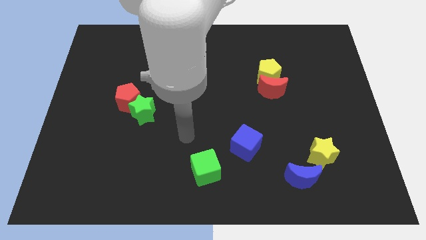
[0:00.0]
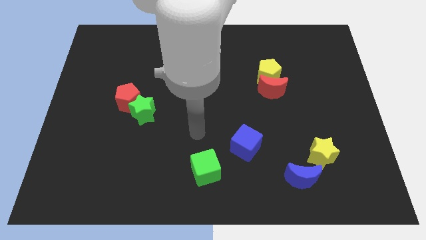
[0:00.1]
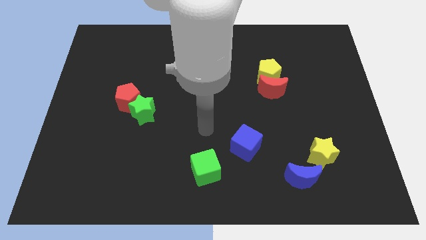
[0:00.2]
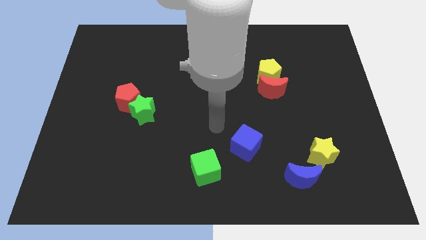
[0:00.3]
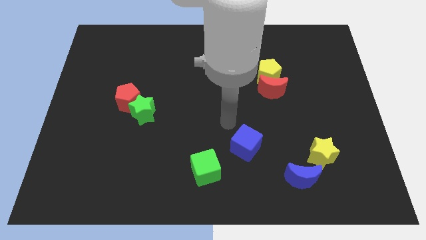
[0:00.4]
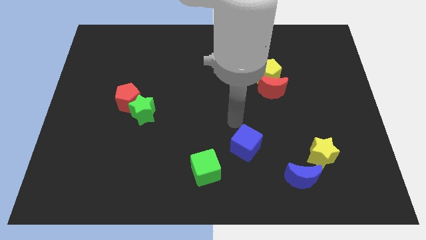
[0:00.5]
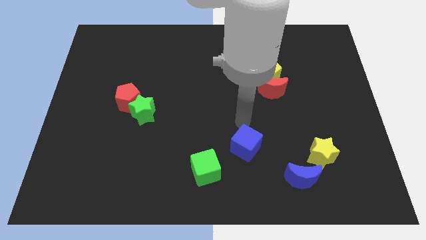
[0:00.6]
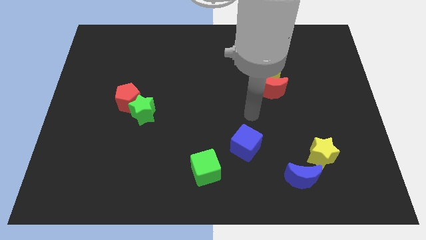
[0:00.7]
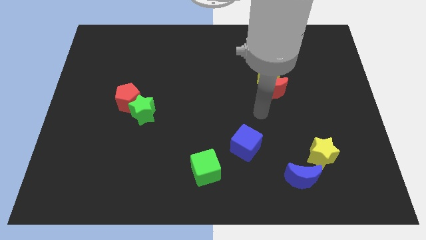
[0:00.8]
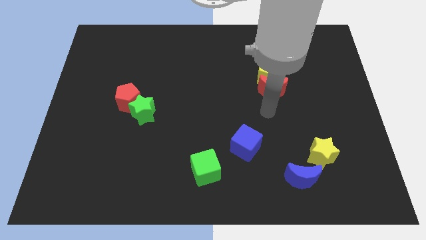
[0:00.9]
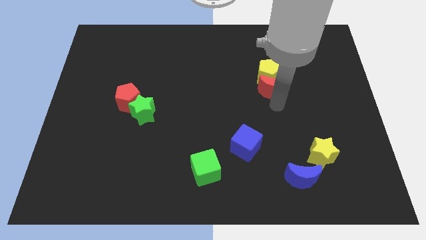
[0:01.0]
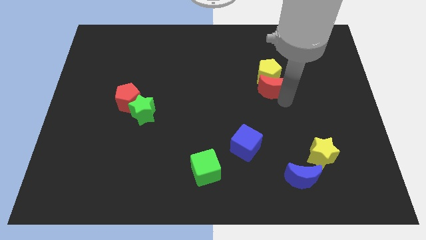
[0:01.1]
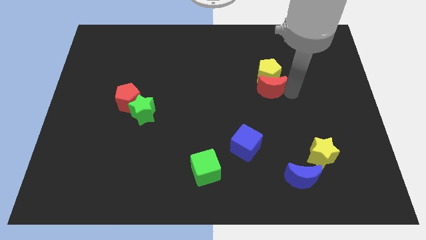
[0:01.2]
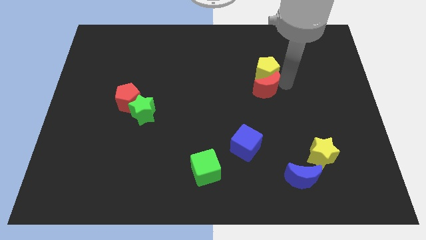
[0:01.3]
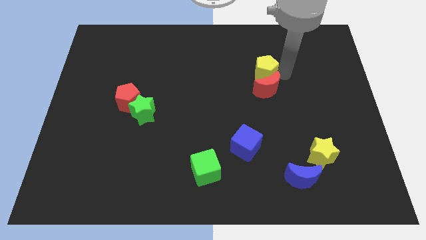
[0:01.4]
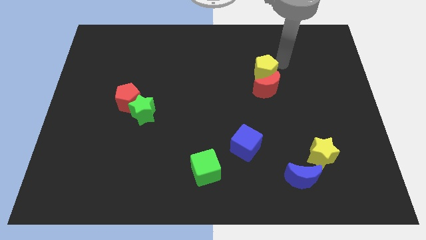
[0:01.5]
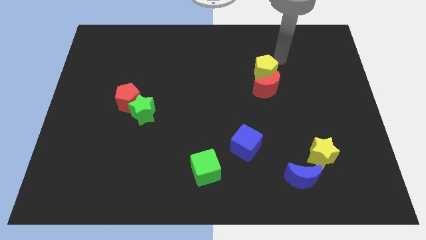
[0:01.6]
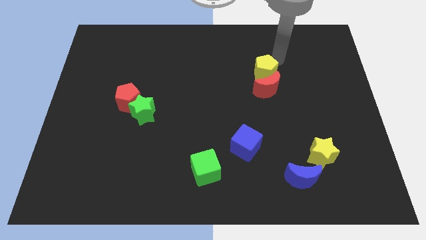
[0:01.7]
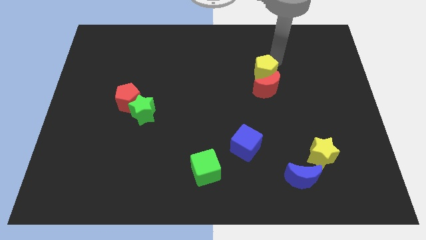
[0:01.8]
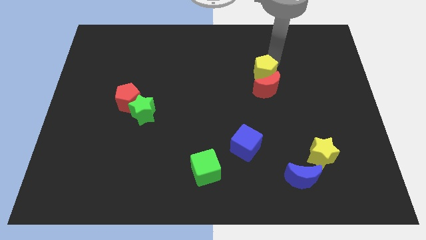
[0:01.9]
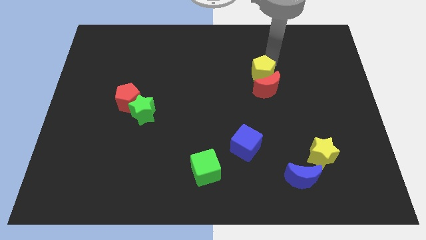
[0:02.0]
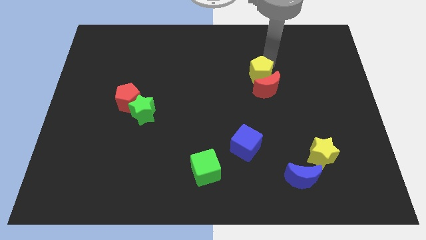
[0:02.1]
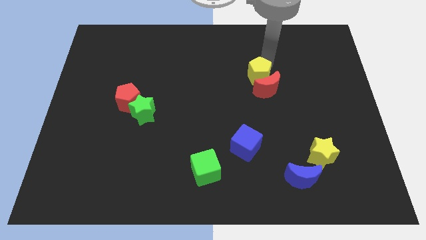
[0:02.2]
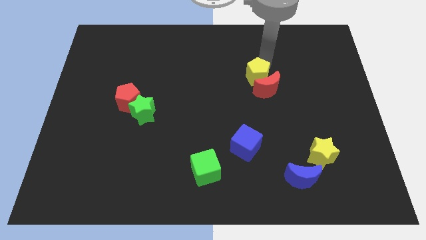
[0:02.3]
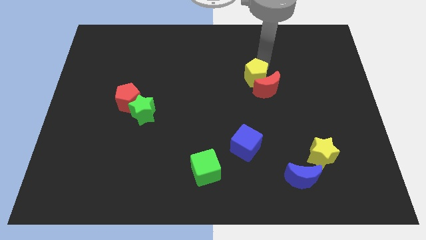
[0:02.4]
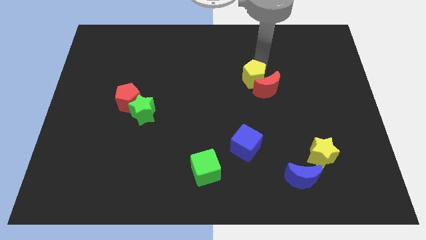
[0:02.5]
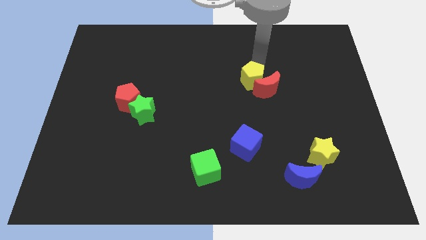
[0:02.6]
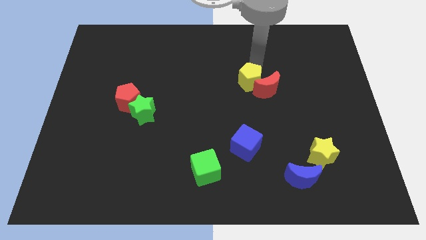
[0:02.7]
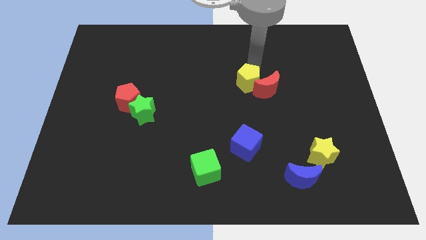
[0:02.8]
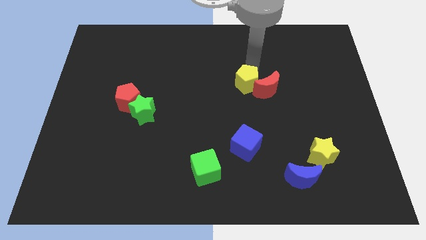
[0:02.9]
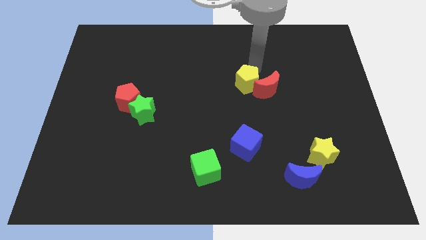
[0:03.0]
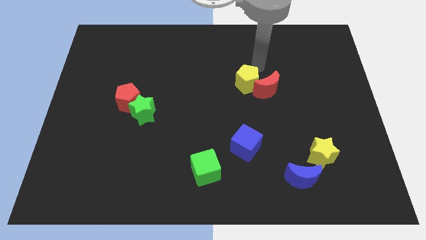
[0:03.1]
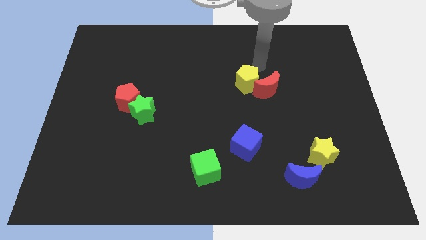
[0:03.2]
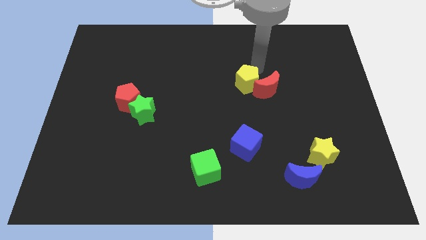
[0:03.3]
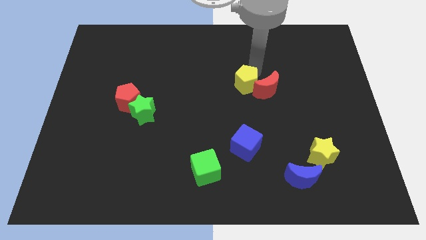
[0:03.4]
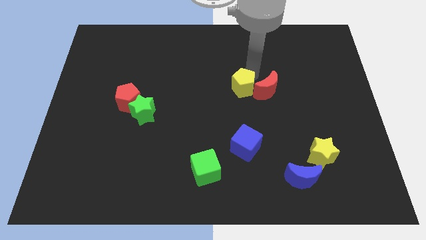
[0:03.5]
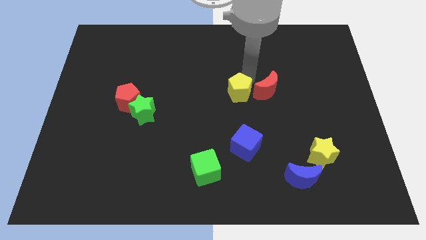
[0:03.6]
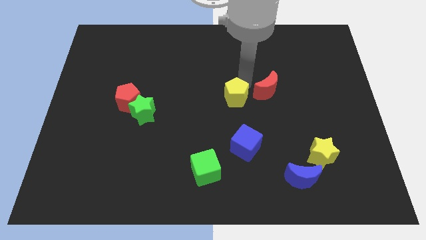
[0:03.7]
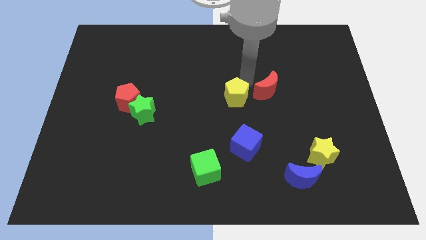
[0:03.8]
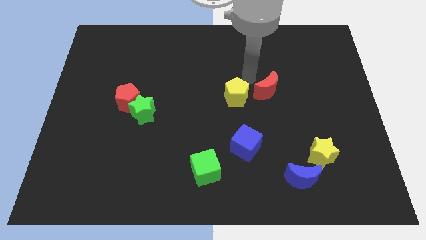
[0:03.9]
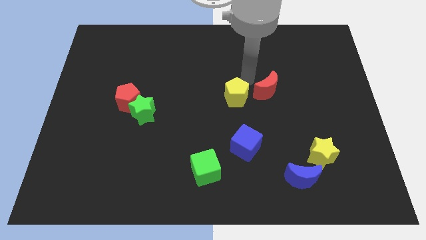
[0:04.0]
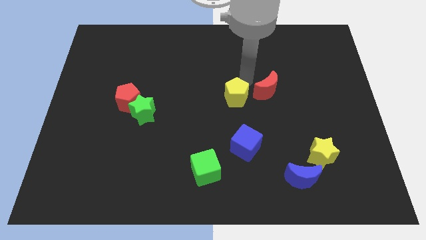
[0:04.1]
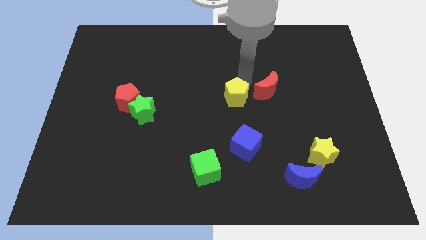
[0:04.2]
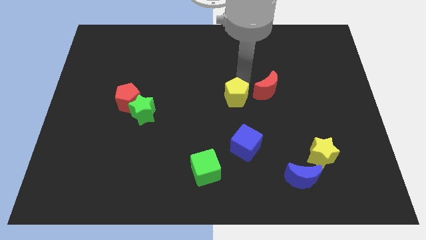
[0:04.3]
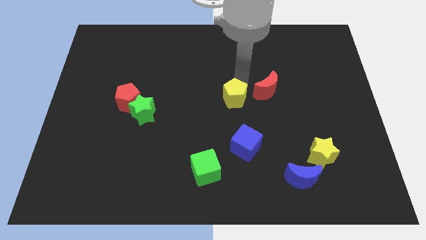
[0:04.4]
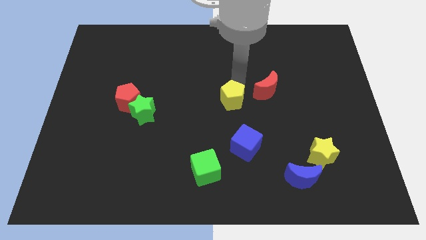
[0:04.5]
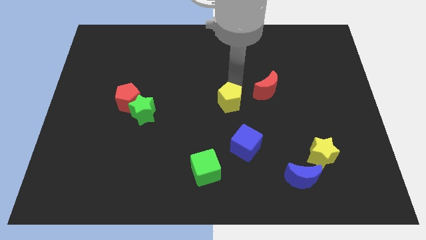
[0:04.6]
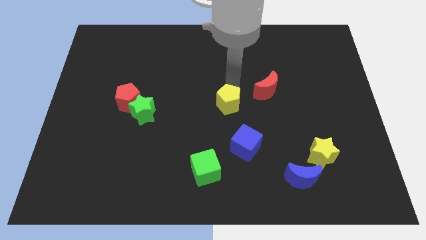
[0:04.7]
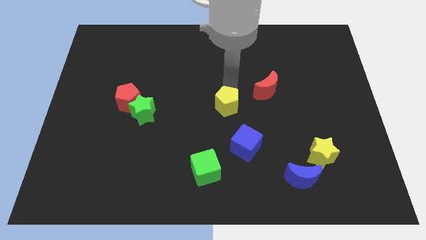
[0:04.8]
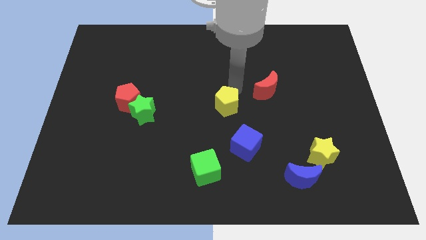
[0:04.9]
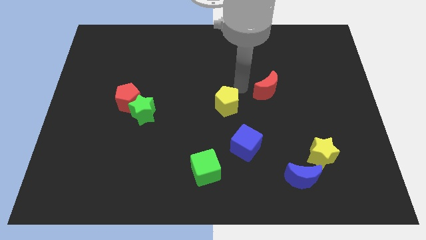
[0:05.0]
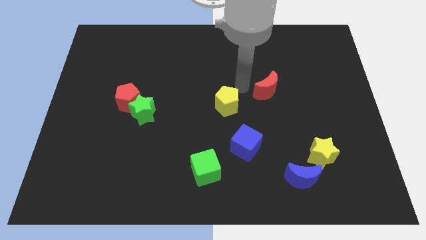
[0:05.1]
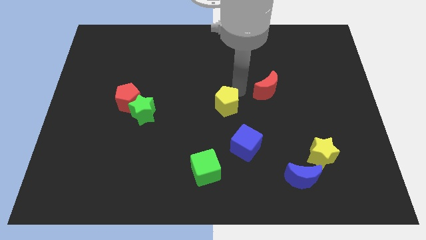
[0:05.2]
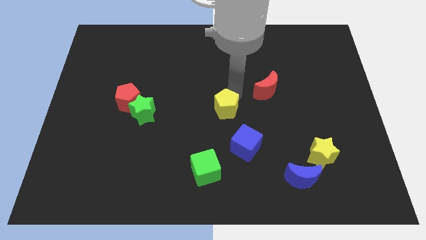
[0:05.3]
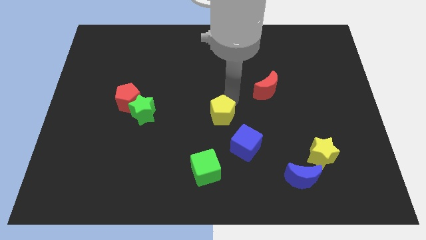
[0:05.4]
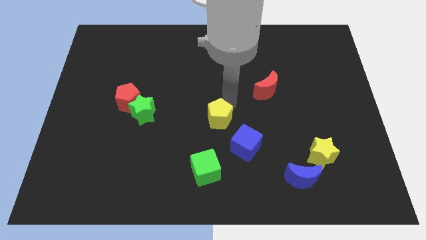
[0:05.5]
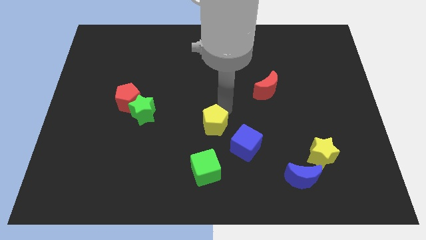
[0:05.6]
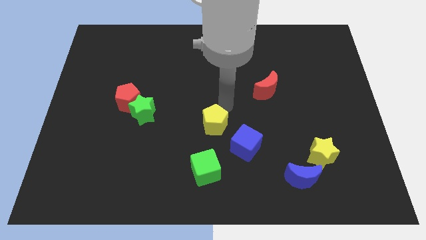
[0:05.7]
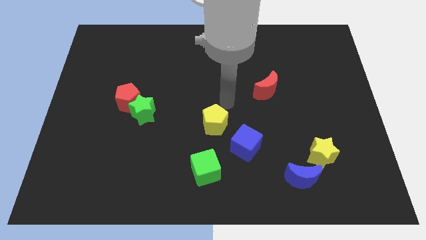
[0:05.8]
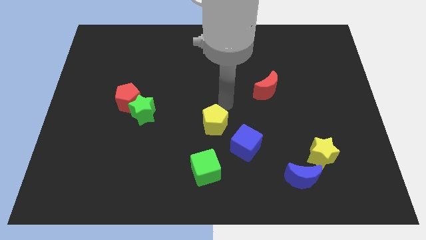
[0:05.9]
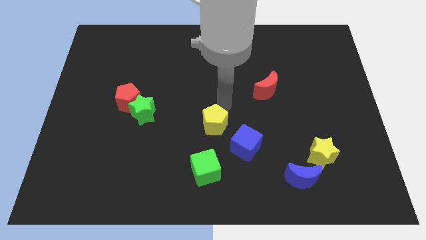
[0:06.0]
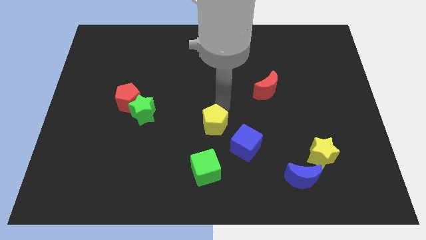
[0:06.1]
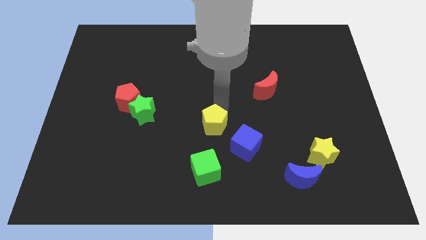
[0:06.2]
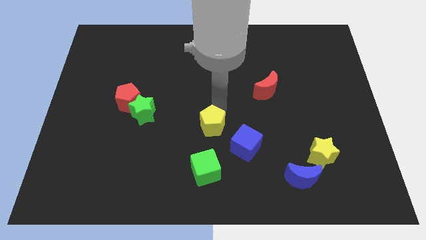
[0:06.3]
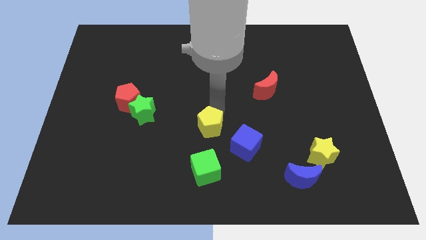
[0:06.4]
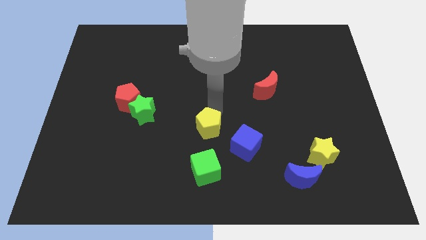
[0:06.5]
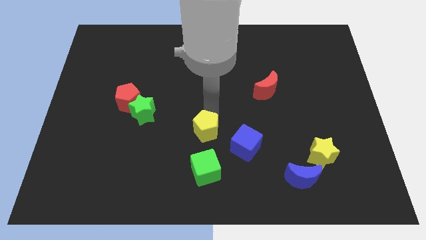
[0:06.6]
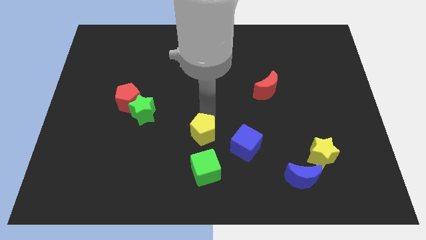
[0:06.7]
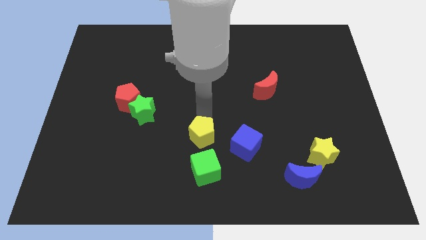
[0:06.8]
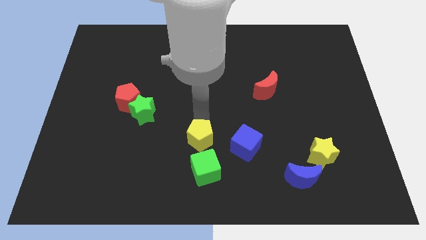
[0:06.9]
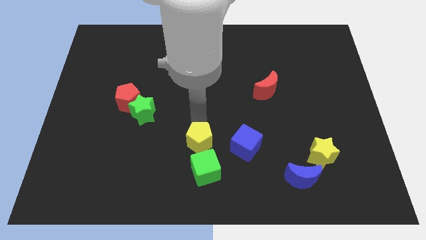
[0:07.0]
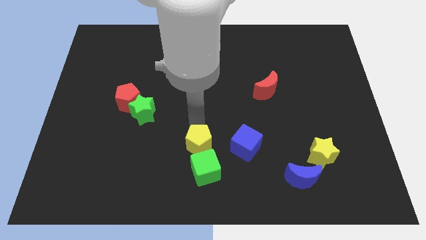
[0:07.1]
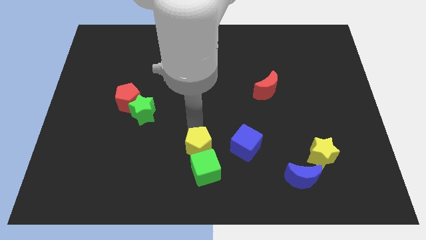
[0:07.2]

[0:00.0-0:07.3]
put the yellow pentagon towards the green cube
